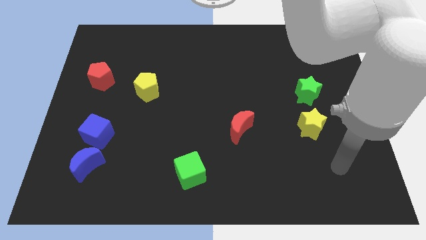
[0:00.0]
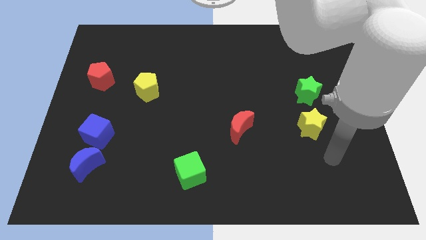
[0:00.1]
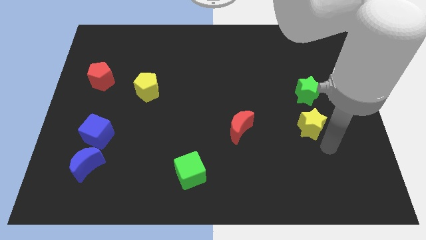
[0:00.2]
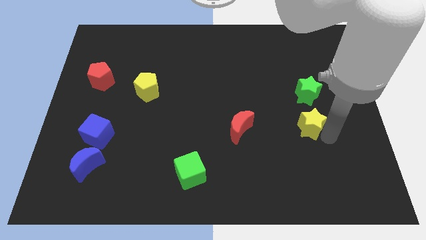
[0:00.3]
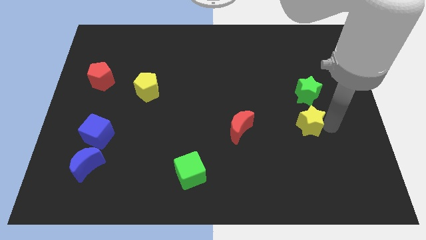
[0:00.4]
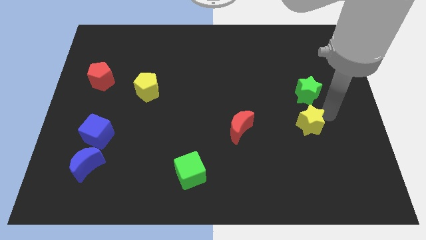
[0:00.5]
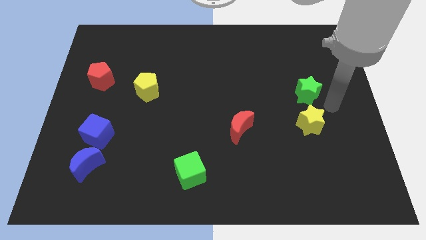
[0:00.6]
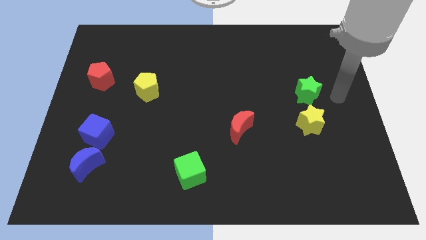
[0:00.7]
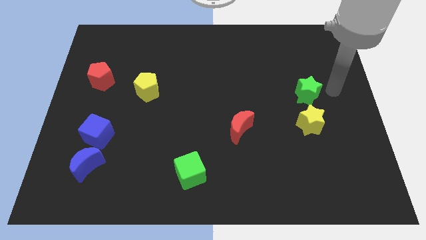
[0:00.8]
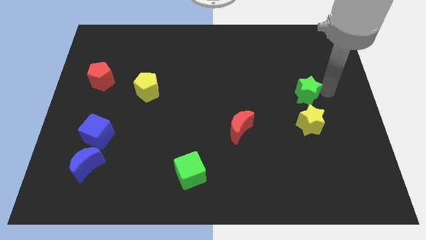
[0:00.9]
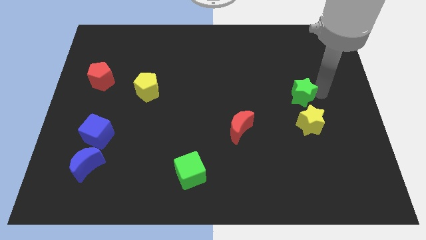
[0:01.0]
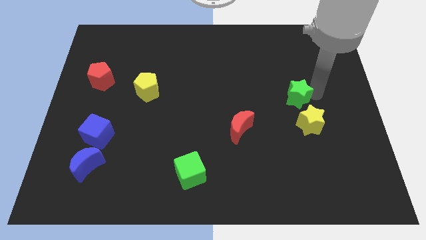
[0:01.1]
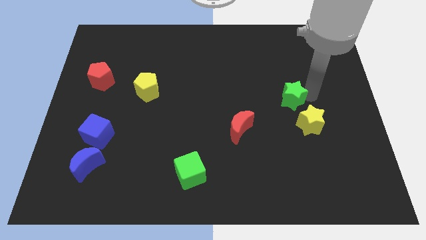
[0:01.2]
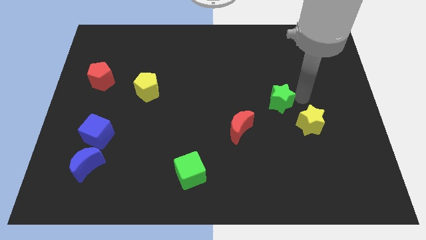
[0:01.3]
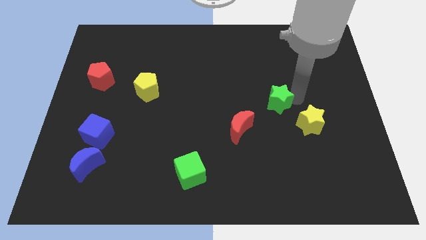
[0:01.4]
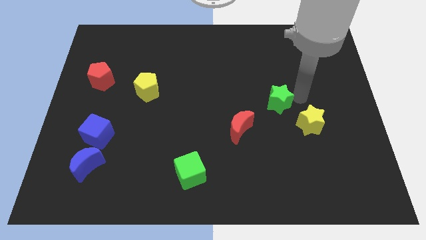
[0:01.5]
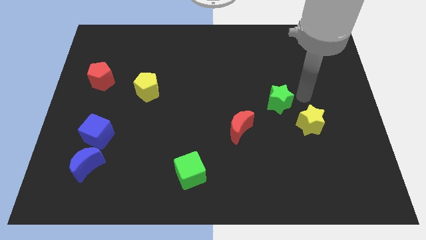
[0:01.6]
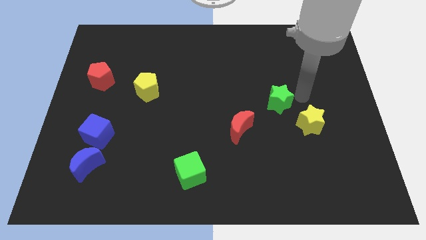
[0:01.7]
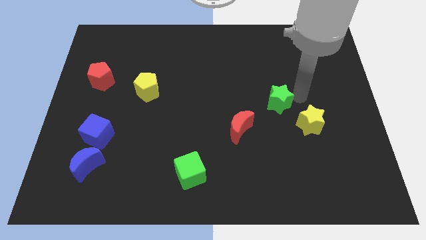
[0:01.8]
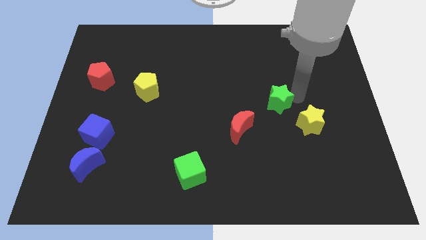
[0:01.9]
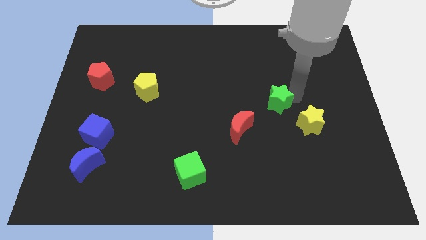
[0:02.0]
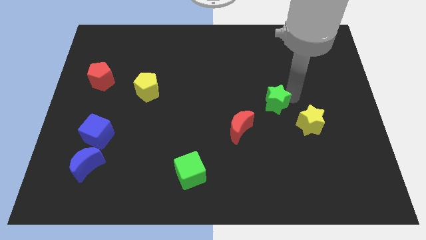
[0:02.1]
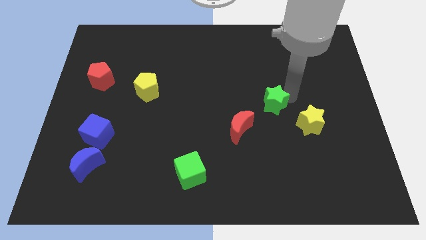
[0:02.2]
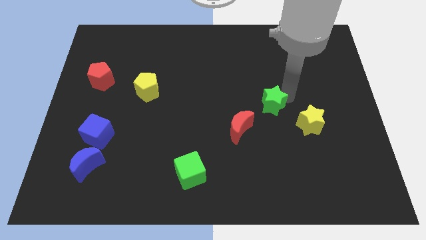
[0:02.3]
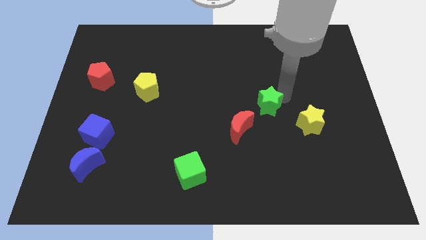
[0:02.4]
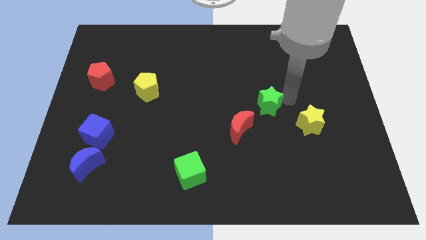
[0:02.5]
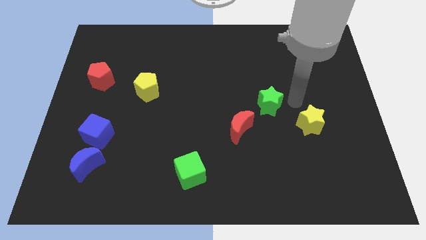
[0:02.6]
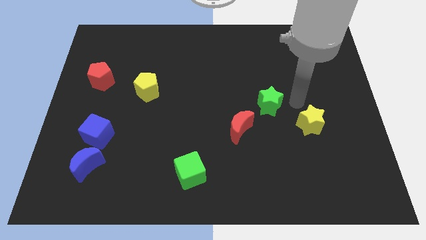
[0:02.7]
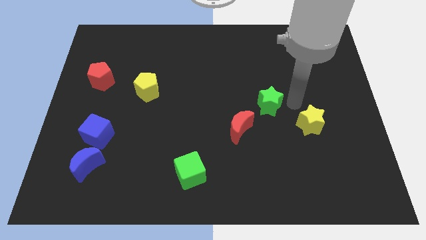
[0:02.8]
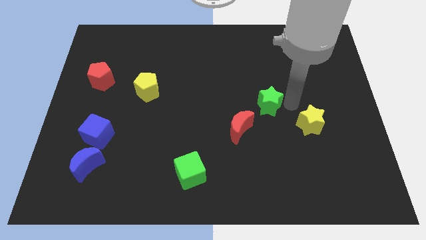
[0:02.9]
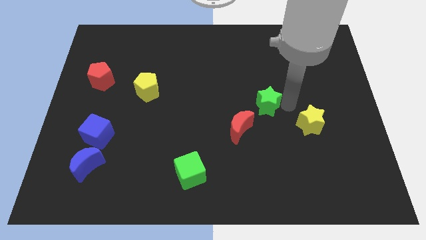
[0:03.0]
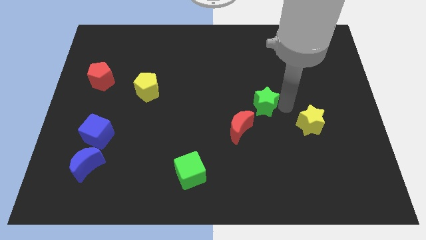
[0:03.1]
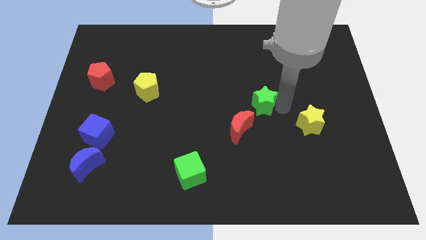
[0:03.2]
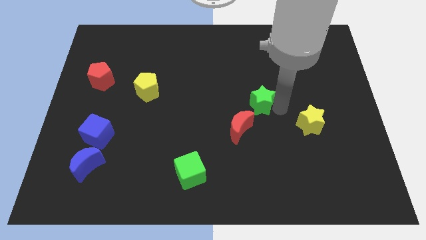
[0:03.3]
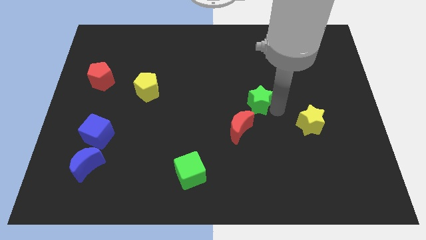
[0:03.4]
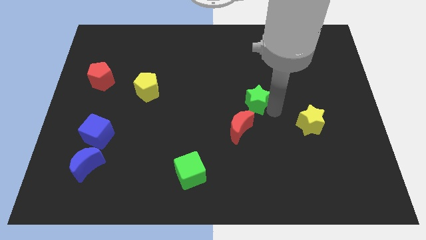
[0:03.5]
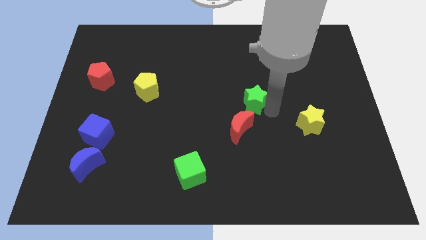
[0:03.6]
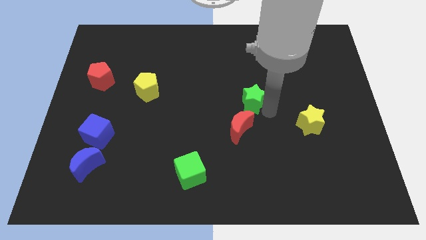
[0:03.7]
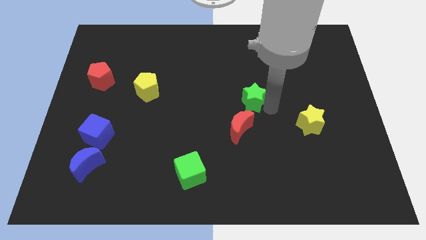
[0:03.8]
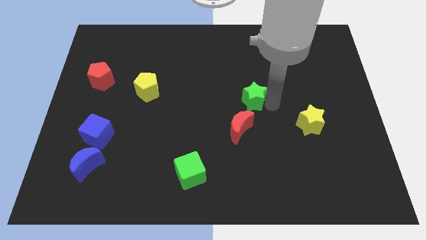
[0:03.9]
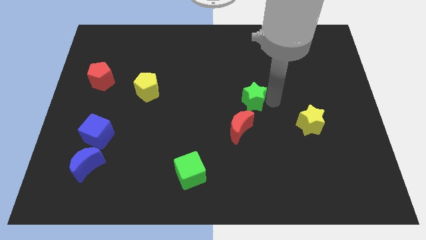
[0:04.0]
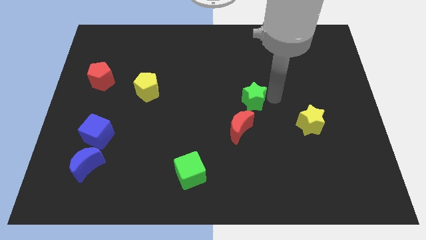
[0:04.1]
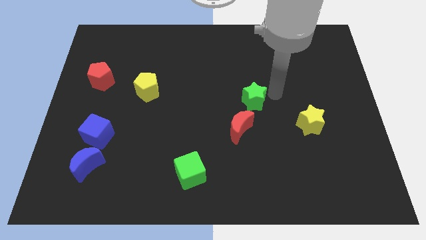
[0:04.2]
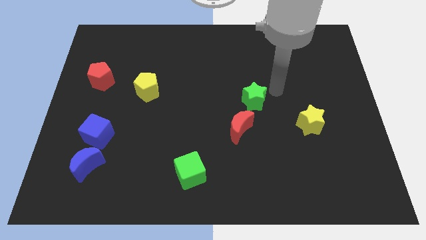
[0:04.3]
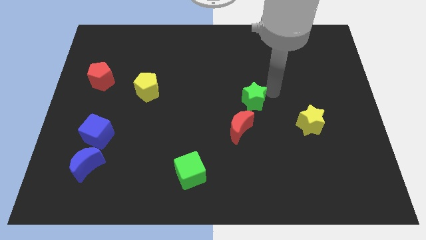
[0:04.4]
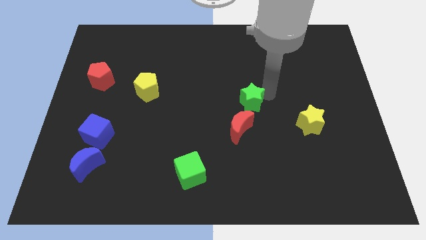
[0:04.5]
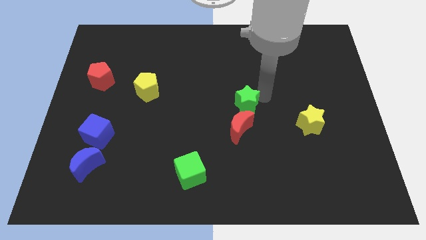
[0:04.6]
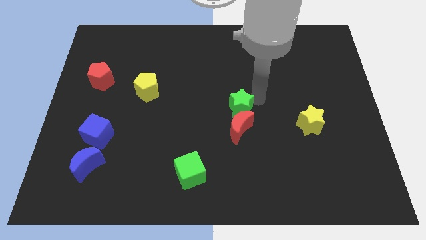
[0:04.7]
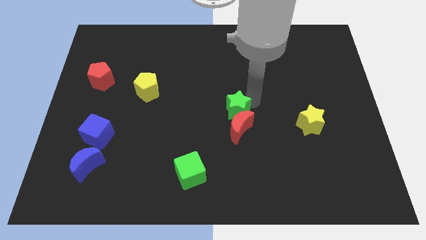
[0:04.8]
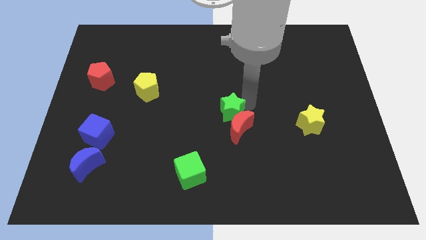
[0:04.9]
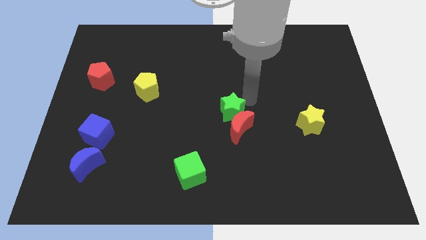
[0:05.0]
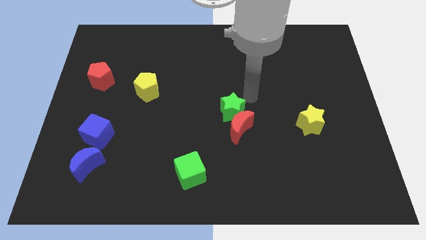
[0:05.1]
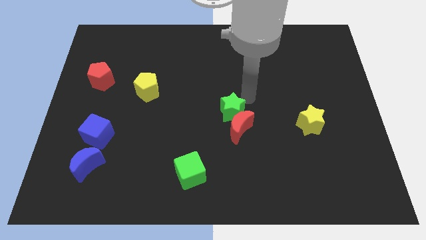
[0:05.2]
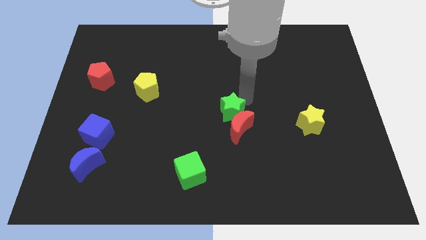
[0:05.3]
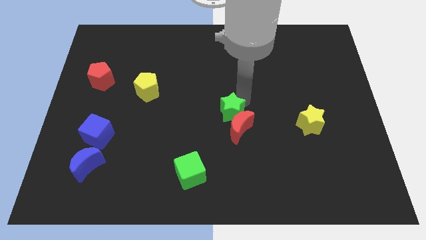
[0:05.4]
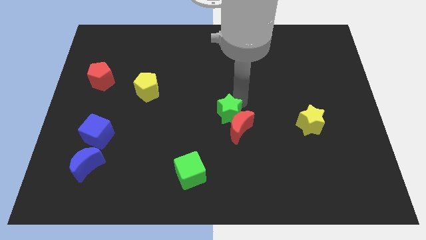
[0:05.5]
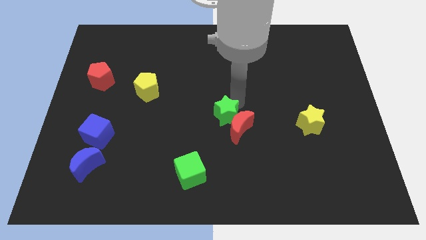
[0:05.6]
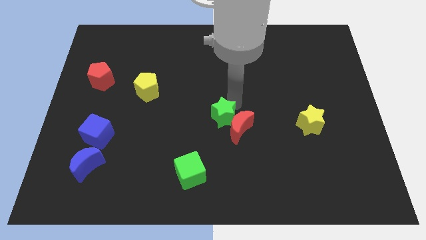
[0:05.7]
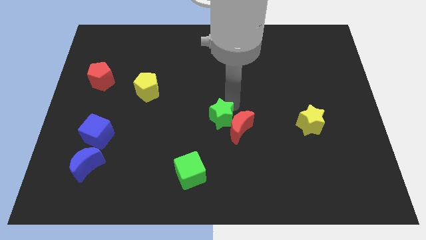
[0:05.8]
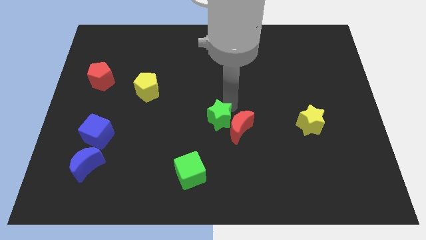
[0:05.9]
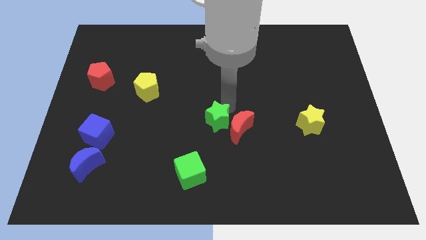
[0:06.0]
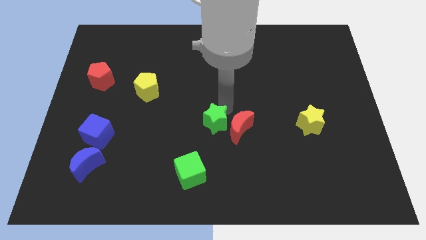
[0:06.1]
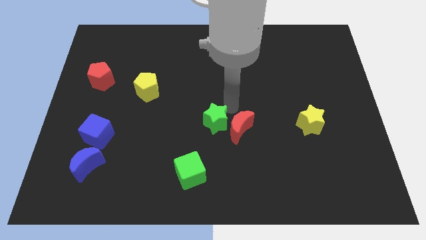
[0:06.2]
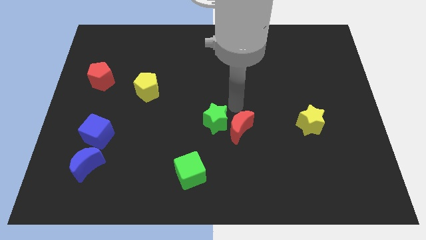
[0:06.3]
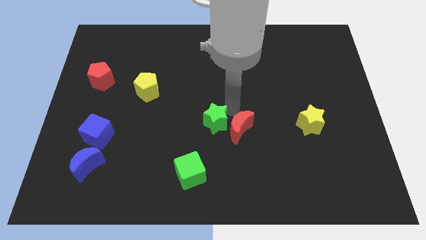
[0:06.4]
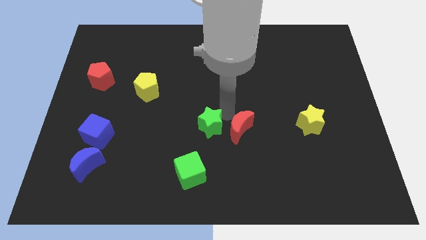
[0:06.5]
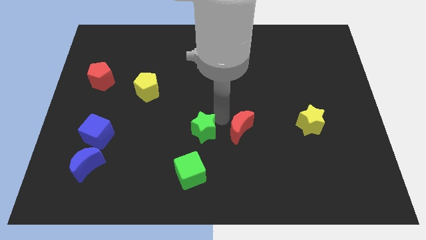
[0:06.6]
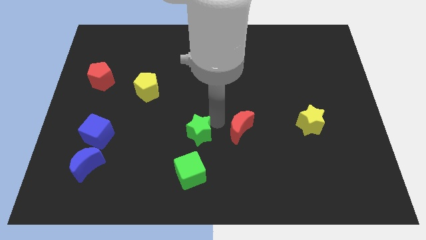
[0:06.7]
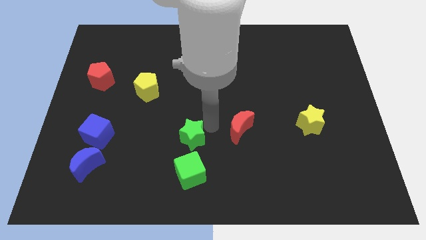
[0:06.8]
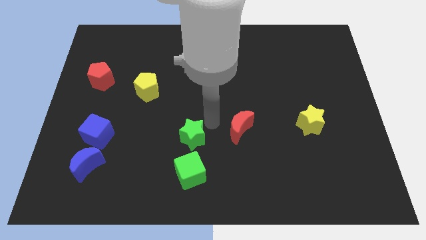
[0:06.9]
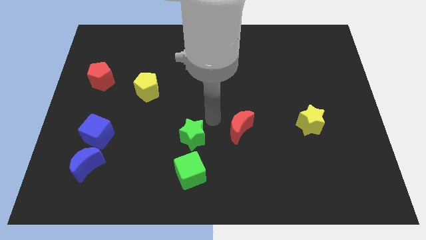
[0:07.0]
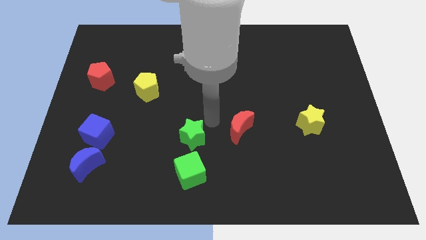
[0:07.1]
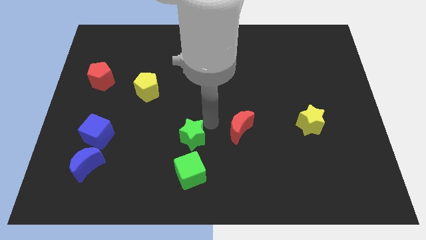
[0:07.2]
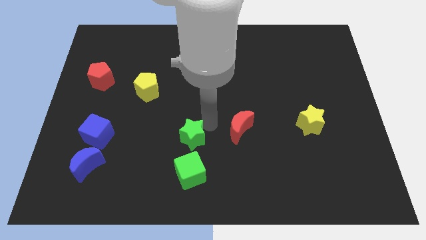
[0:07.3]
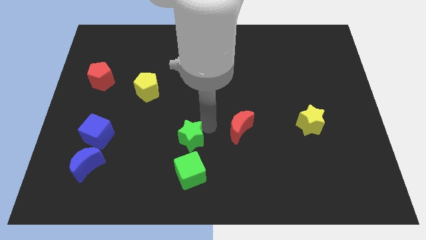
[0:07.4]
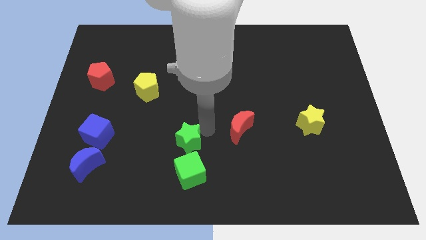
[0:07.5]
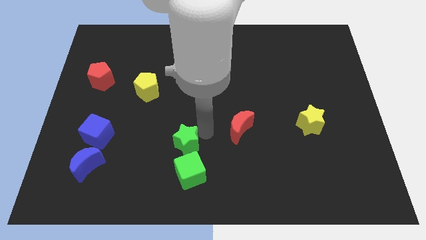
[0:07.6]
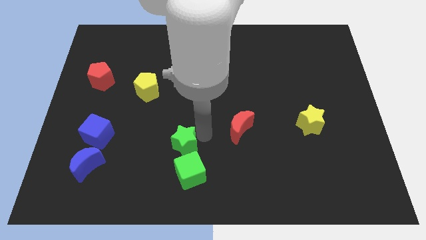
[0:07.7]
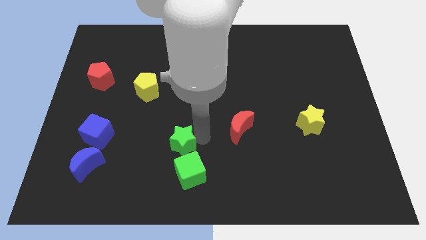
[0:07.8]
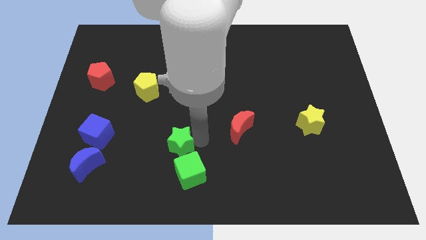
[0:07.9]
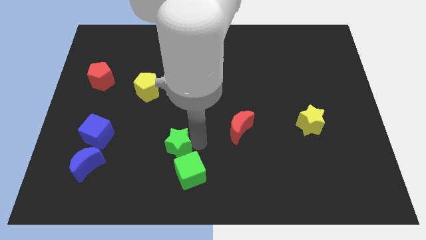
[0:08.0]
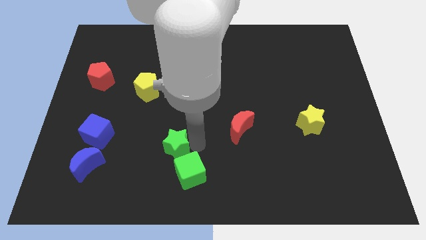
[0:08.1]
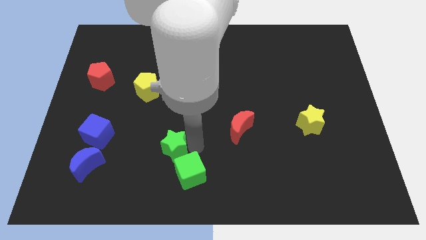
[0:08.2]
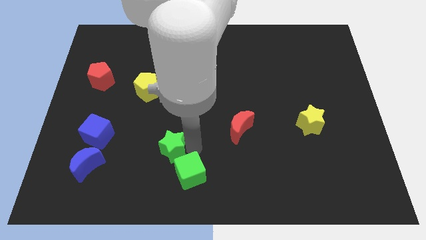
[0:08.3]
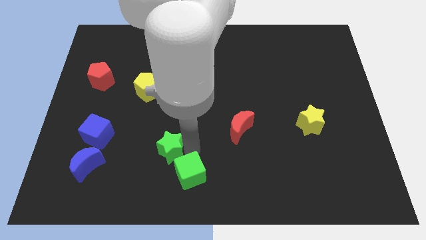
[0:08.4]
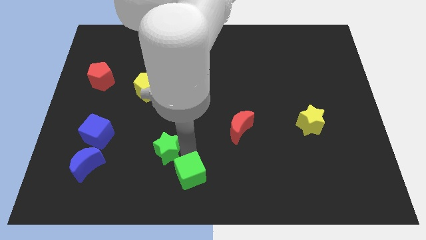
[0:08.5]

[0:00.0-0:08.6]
slide the green star to the left of the green cube
